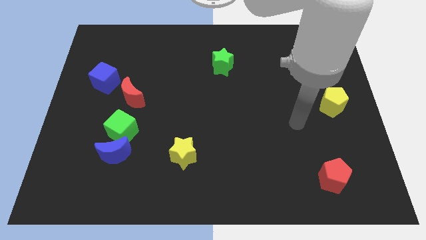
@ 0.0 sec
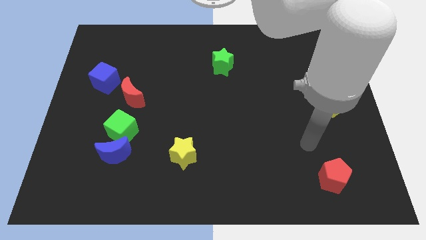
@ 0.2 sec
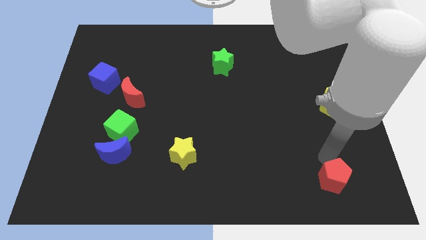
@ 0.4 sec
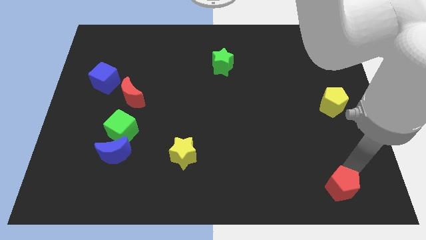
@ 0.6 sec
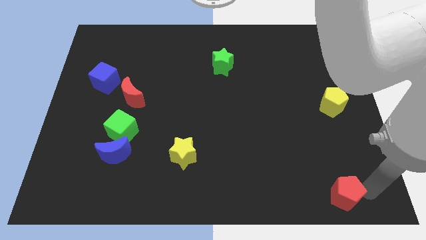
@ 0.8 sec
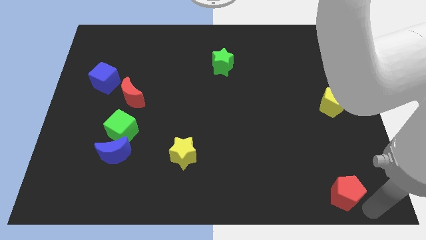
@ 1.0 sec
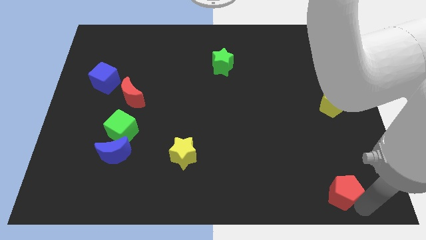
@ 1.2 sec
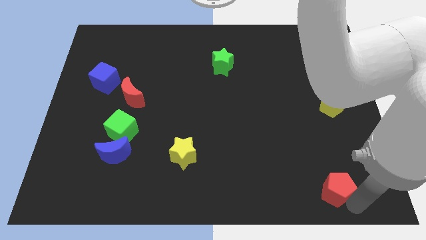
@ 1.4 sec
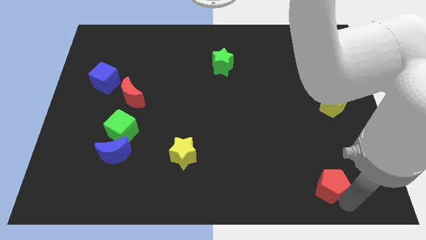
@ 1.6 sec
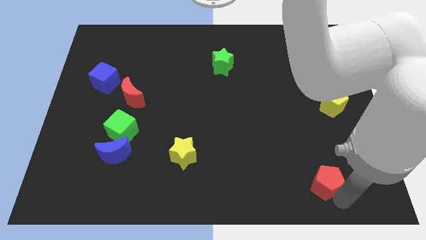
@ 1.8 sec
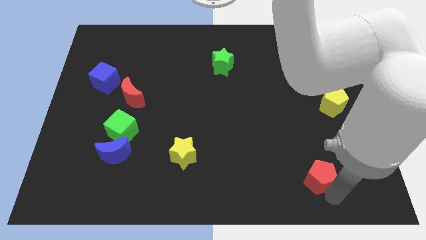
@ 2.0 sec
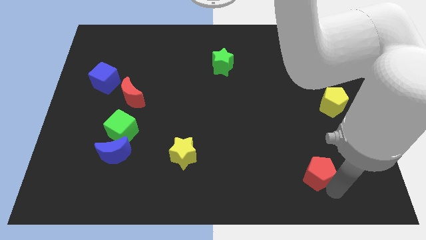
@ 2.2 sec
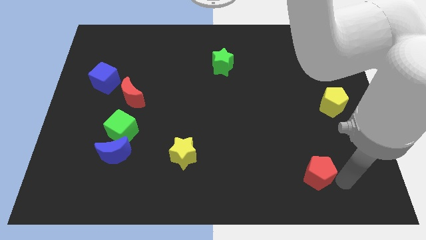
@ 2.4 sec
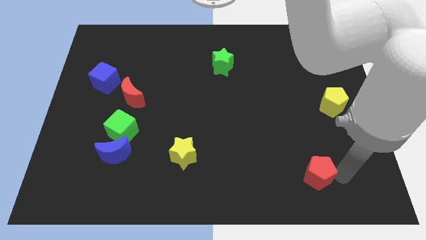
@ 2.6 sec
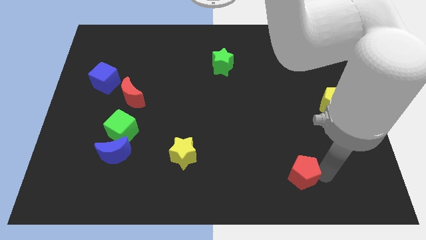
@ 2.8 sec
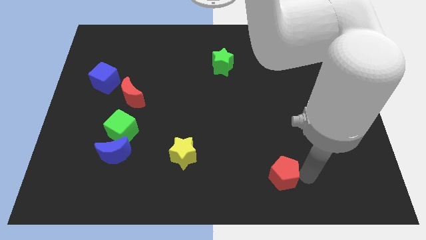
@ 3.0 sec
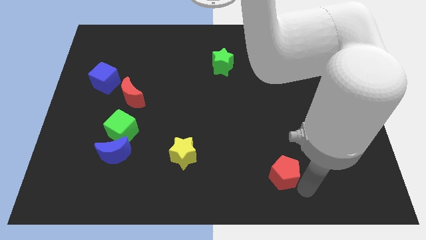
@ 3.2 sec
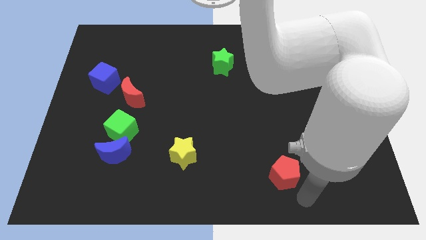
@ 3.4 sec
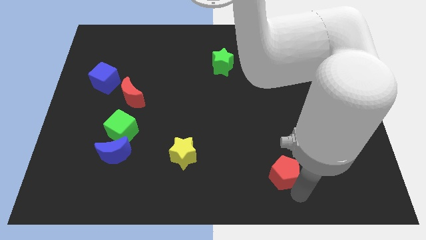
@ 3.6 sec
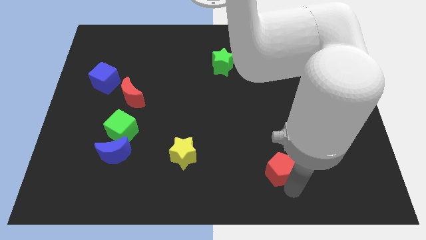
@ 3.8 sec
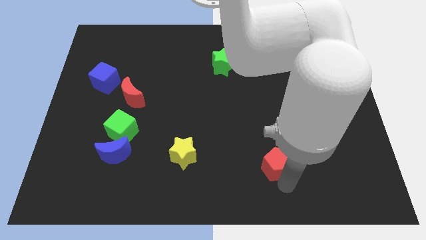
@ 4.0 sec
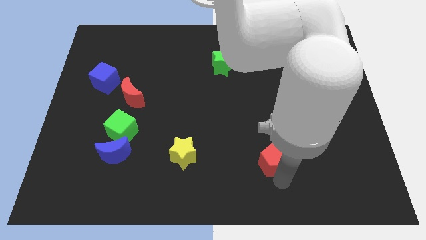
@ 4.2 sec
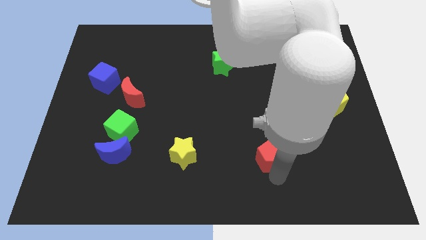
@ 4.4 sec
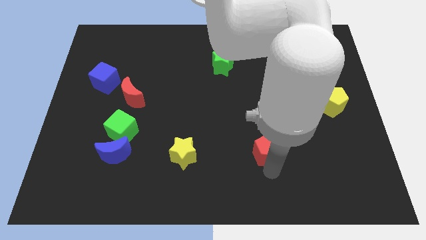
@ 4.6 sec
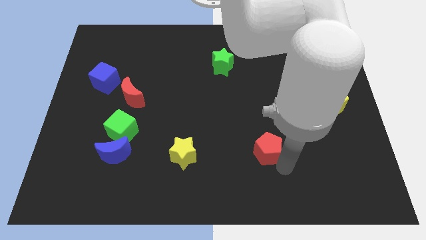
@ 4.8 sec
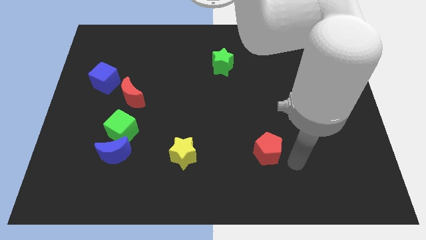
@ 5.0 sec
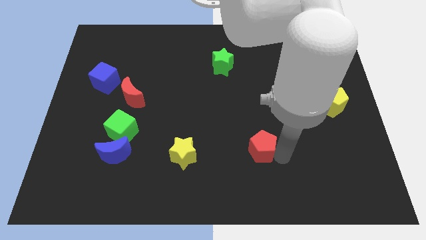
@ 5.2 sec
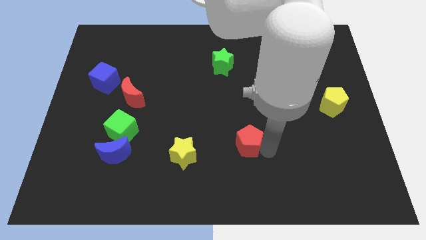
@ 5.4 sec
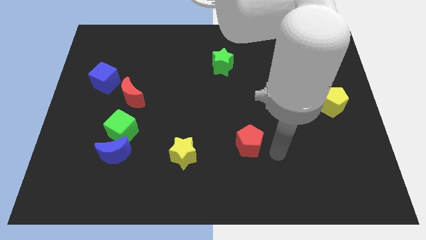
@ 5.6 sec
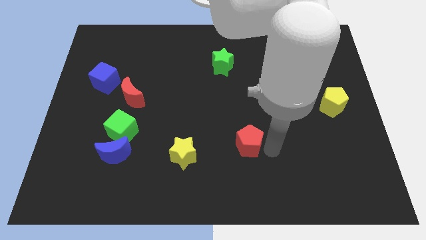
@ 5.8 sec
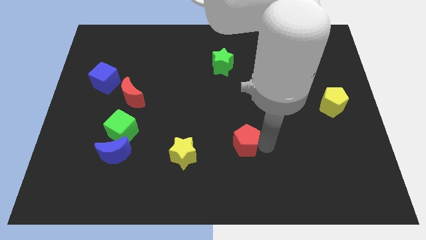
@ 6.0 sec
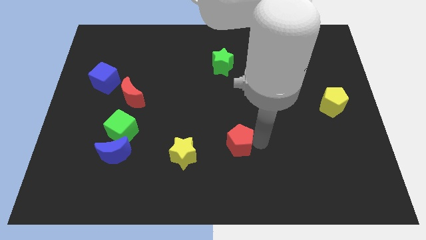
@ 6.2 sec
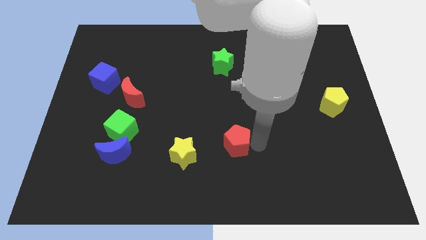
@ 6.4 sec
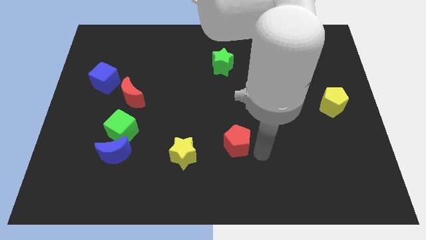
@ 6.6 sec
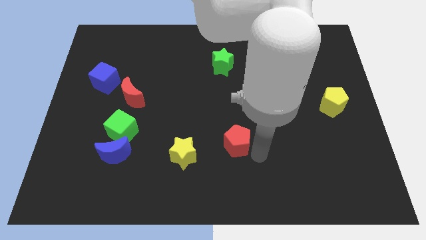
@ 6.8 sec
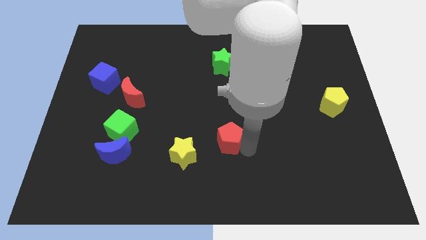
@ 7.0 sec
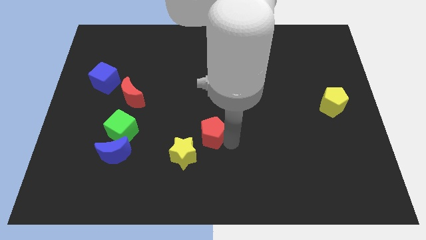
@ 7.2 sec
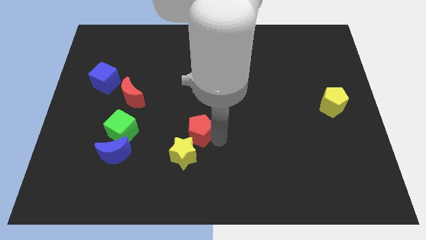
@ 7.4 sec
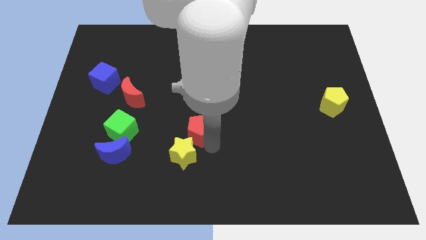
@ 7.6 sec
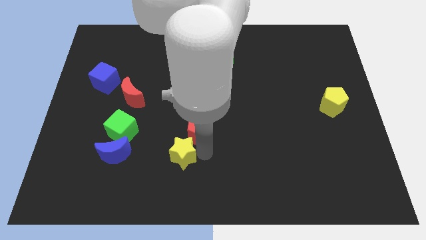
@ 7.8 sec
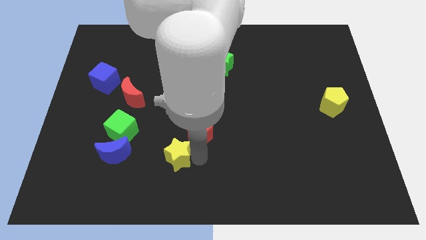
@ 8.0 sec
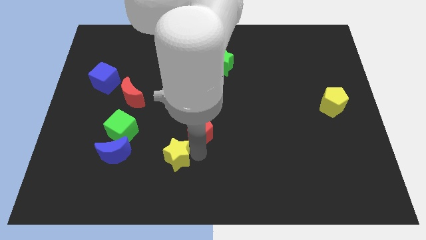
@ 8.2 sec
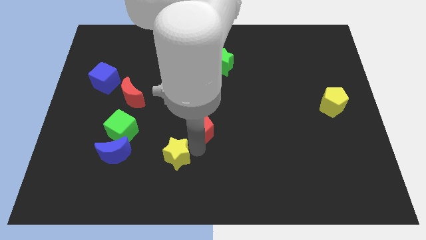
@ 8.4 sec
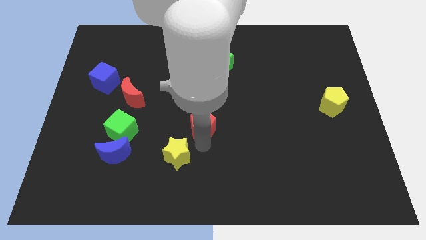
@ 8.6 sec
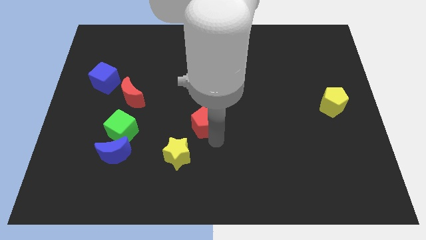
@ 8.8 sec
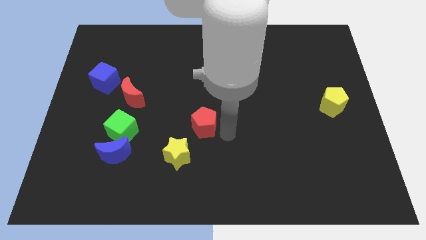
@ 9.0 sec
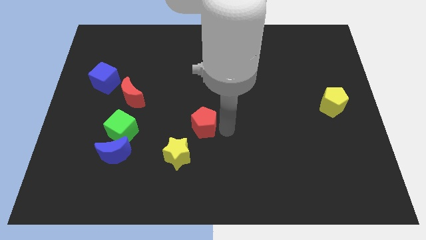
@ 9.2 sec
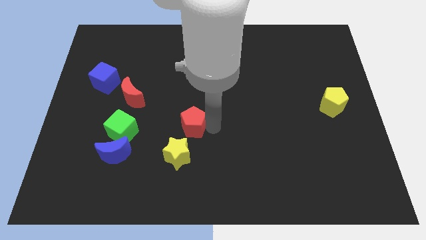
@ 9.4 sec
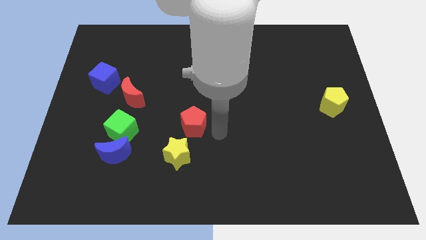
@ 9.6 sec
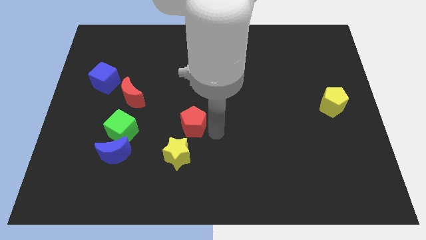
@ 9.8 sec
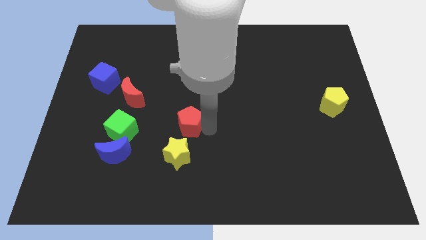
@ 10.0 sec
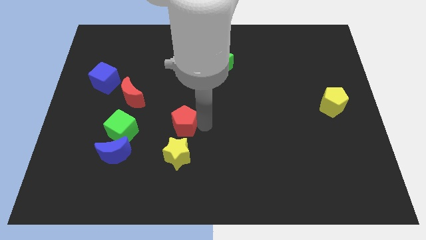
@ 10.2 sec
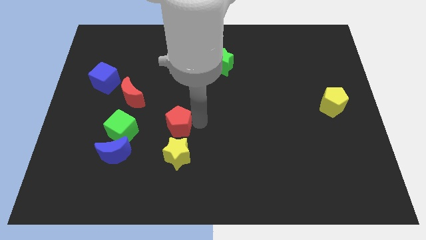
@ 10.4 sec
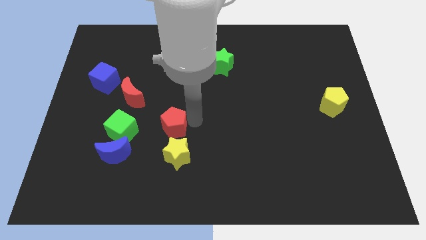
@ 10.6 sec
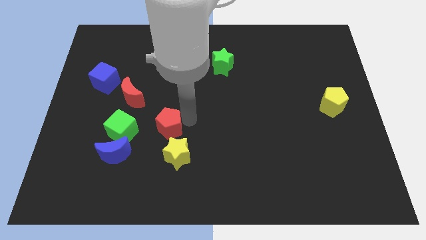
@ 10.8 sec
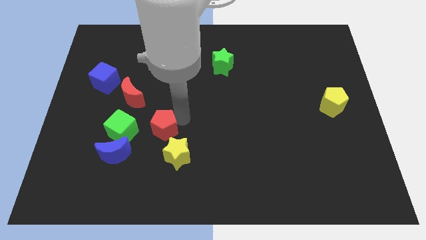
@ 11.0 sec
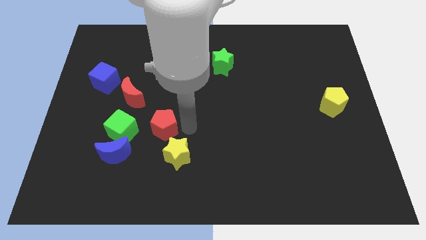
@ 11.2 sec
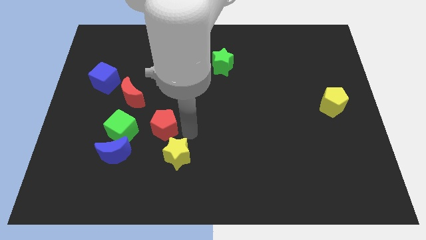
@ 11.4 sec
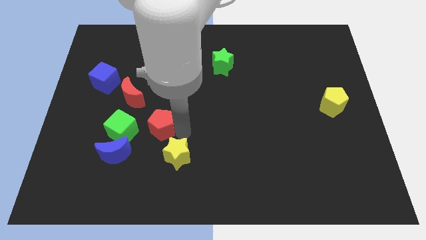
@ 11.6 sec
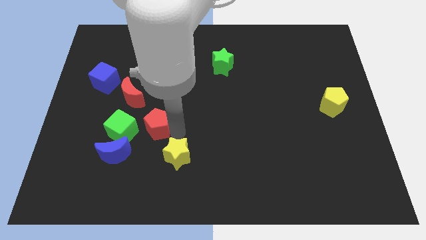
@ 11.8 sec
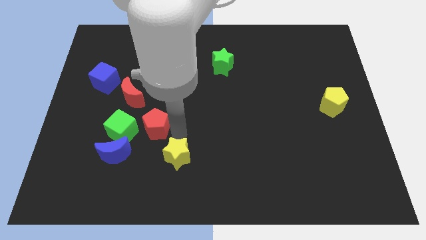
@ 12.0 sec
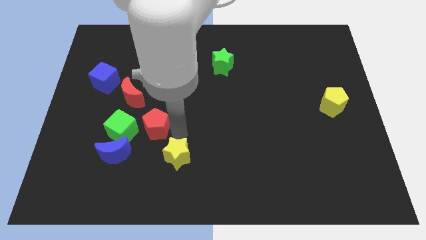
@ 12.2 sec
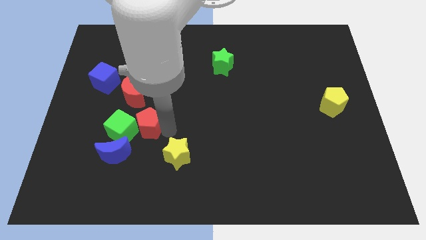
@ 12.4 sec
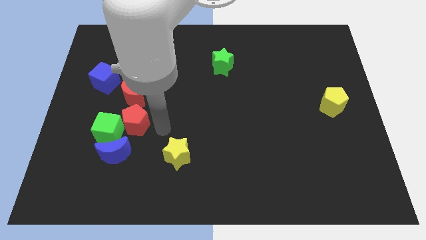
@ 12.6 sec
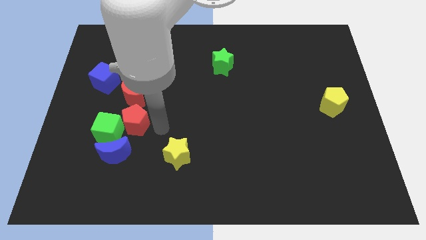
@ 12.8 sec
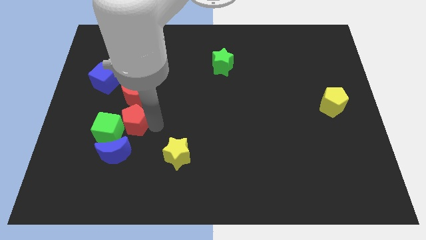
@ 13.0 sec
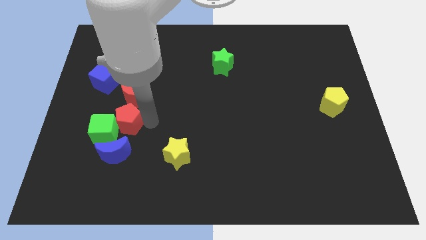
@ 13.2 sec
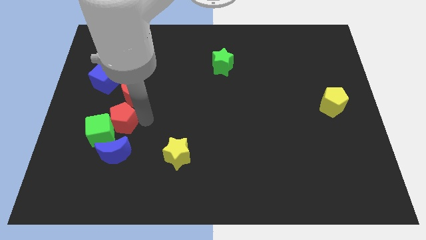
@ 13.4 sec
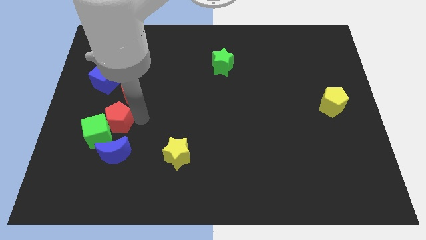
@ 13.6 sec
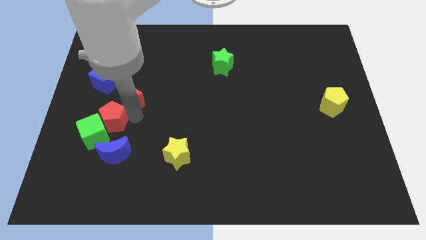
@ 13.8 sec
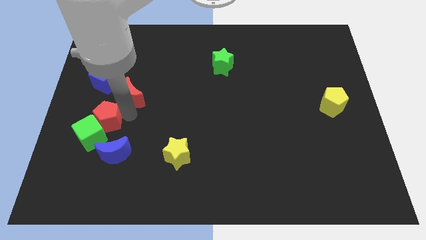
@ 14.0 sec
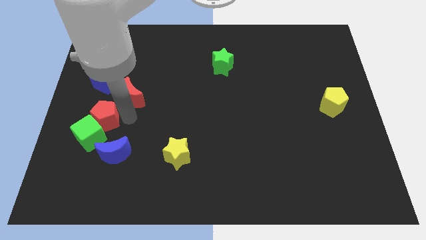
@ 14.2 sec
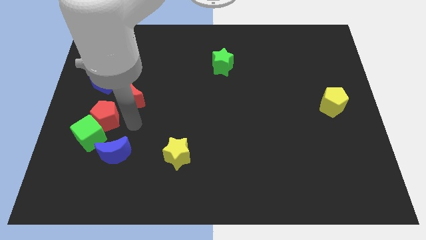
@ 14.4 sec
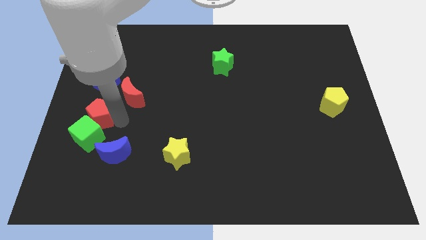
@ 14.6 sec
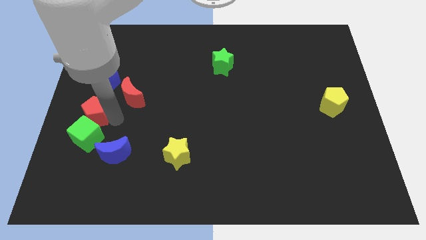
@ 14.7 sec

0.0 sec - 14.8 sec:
slide the red pentagon to the left side

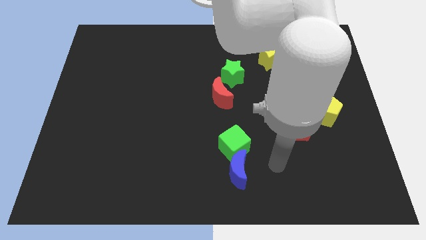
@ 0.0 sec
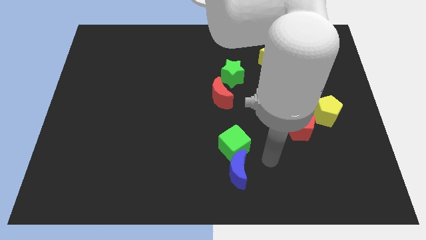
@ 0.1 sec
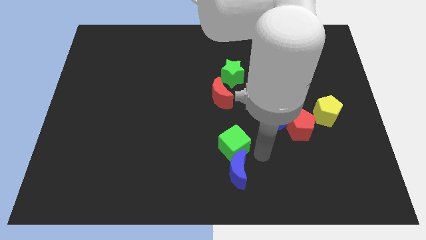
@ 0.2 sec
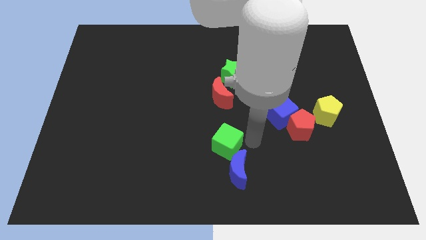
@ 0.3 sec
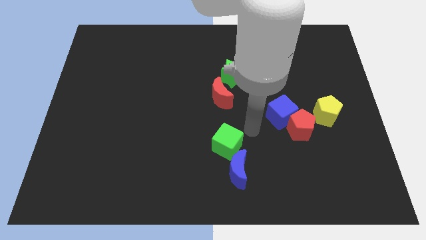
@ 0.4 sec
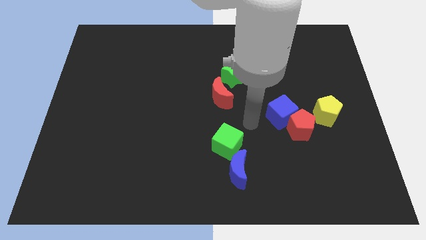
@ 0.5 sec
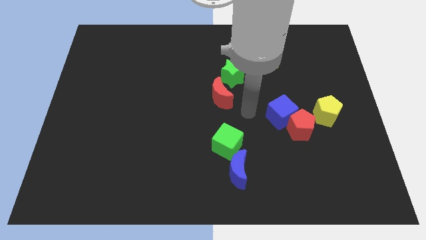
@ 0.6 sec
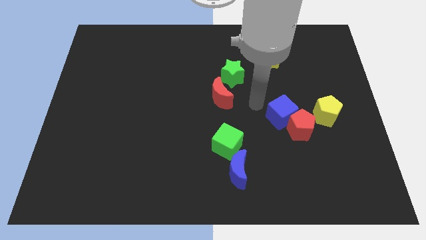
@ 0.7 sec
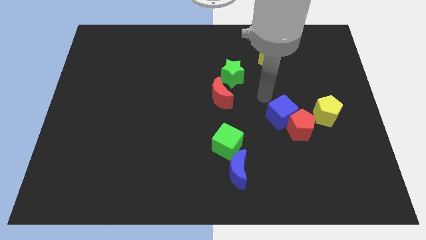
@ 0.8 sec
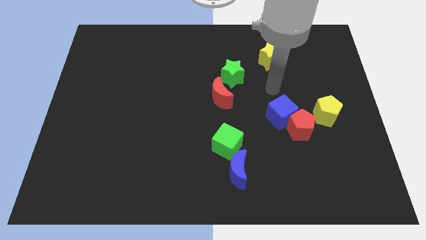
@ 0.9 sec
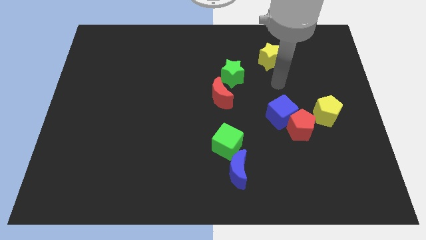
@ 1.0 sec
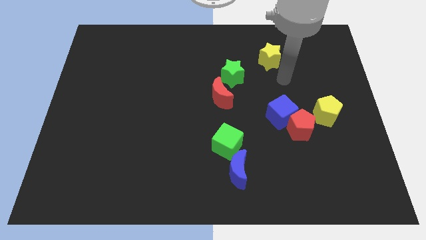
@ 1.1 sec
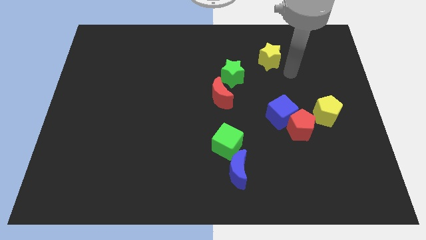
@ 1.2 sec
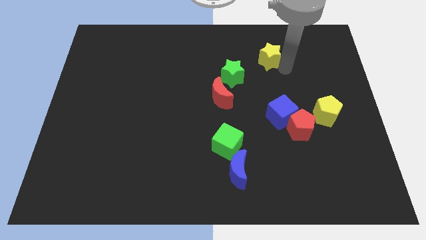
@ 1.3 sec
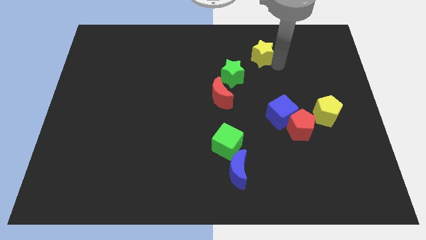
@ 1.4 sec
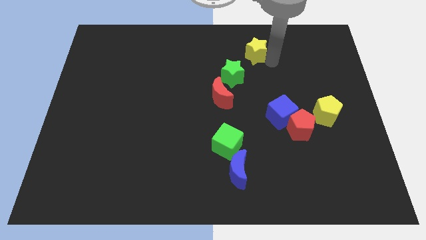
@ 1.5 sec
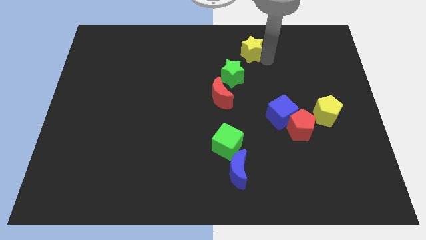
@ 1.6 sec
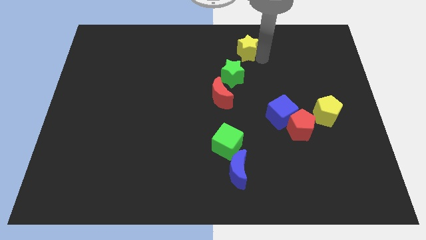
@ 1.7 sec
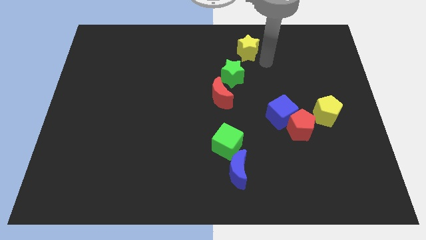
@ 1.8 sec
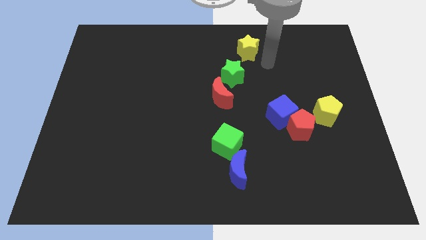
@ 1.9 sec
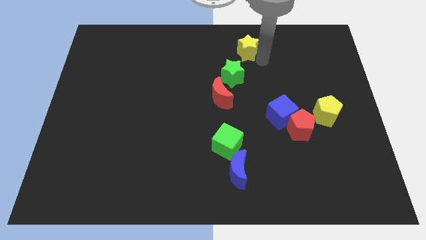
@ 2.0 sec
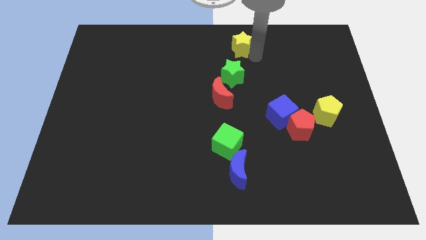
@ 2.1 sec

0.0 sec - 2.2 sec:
slide the yellow star to the towards your base
